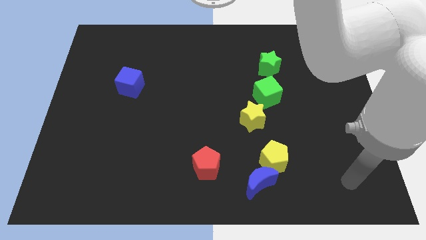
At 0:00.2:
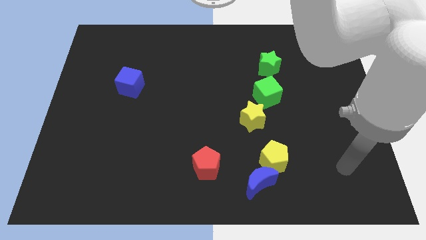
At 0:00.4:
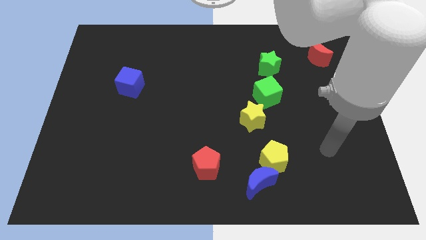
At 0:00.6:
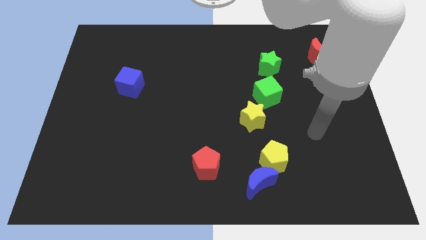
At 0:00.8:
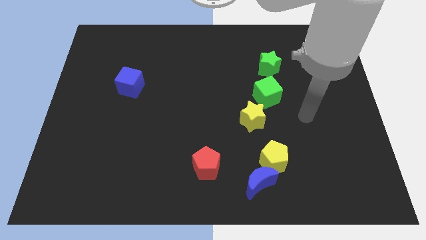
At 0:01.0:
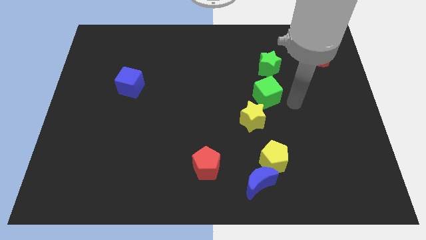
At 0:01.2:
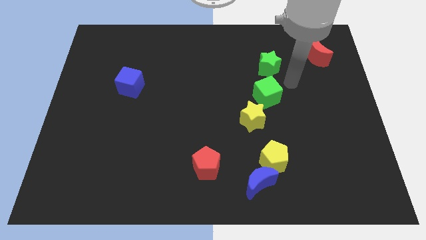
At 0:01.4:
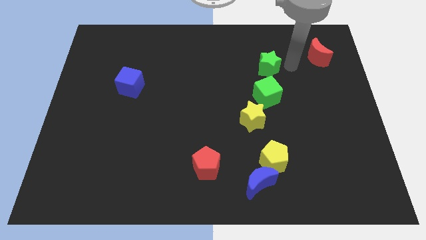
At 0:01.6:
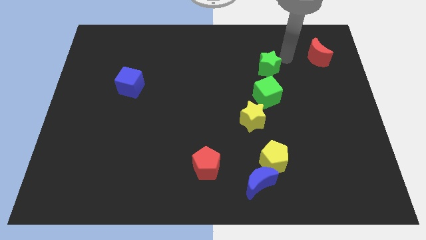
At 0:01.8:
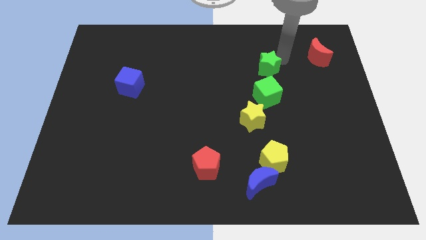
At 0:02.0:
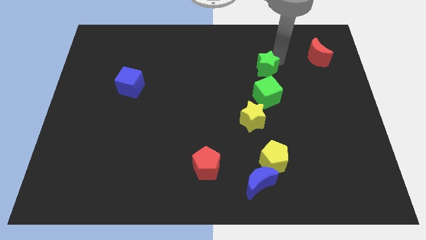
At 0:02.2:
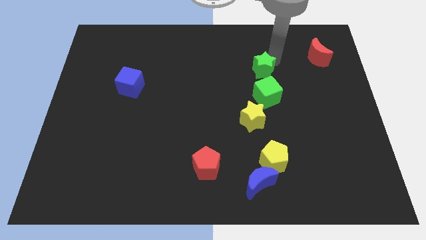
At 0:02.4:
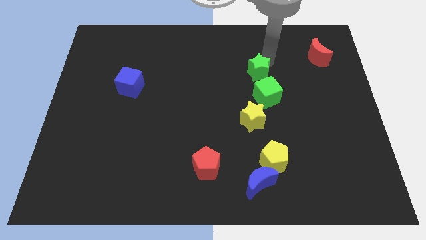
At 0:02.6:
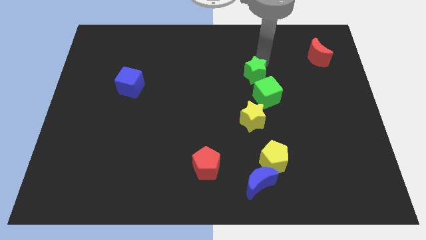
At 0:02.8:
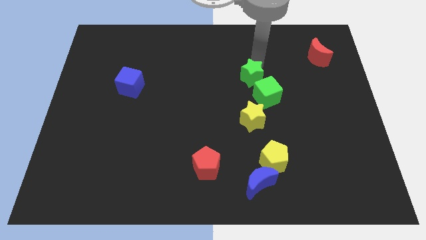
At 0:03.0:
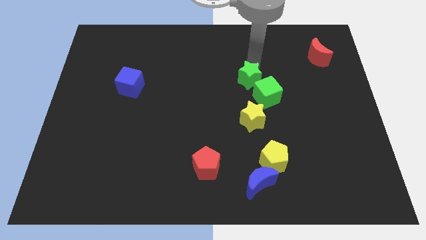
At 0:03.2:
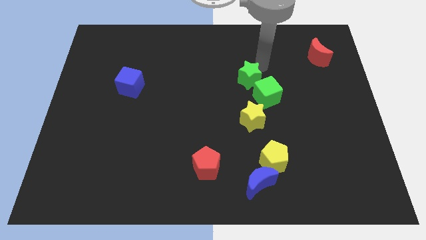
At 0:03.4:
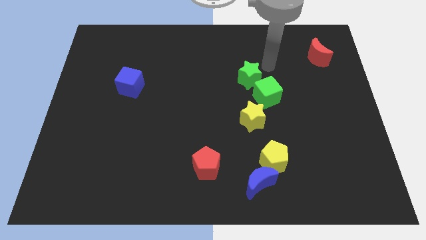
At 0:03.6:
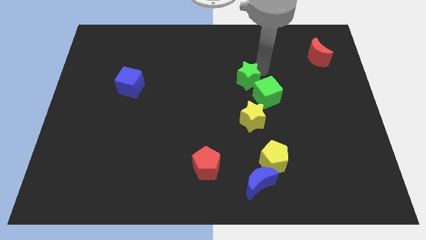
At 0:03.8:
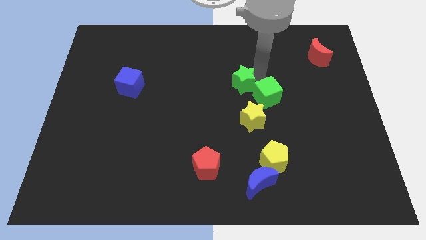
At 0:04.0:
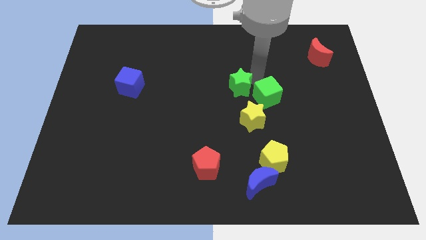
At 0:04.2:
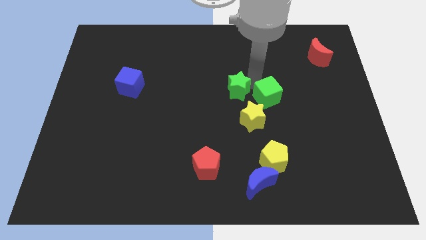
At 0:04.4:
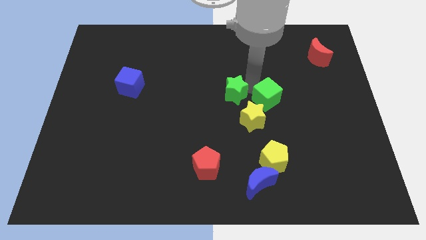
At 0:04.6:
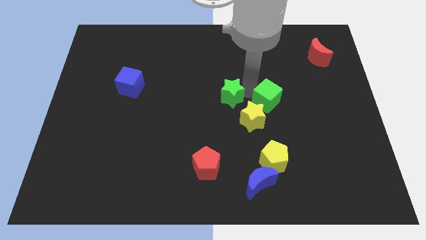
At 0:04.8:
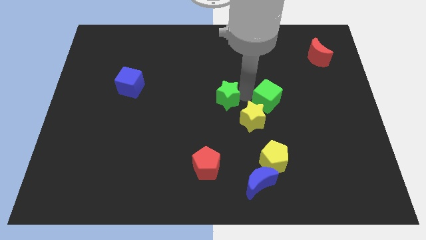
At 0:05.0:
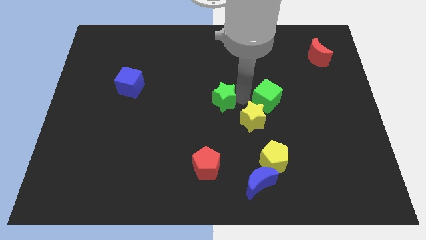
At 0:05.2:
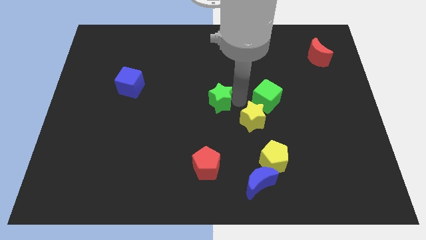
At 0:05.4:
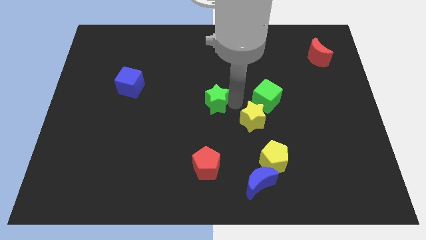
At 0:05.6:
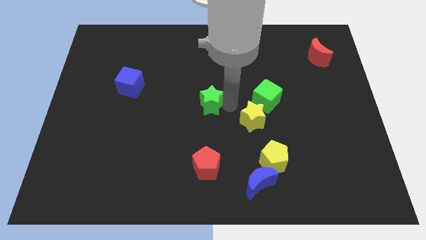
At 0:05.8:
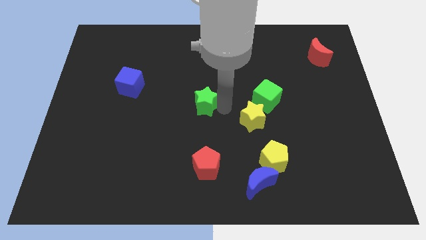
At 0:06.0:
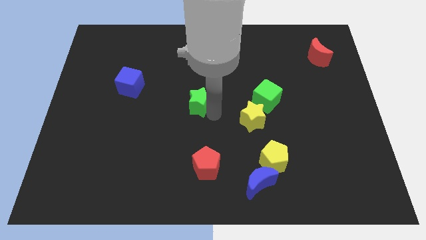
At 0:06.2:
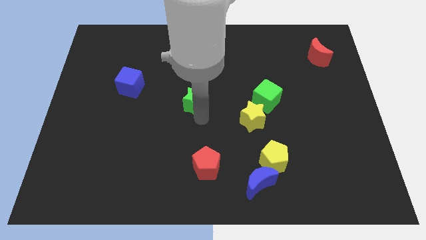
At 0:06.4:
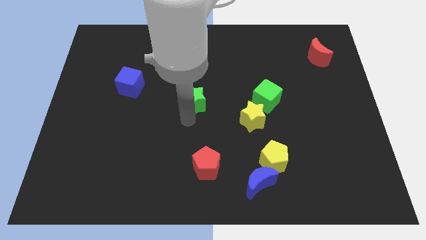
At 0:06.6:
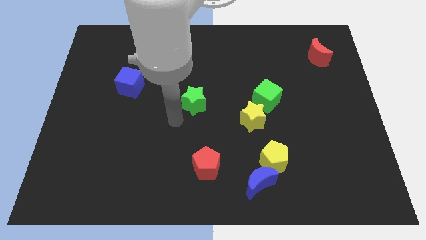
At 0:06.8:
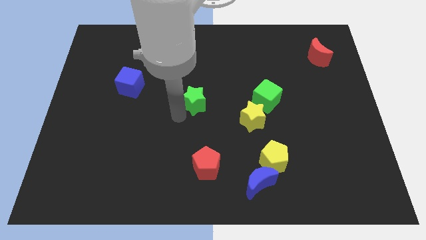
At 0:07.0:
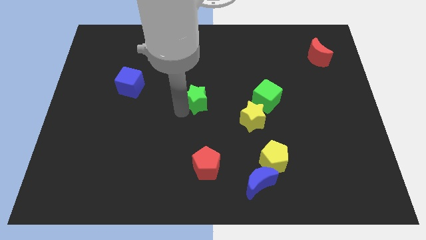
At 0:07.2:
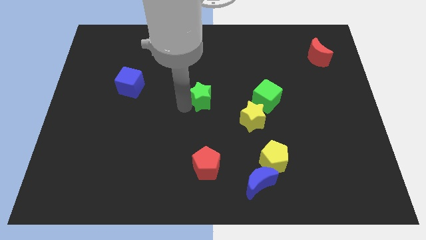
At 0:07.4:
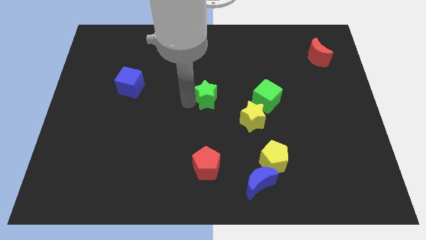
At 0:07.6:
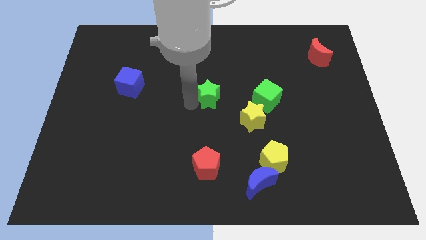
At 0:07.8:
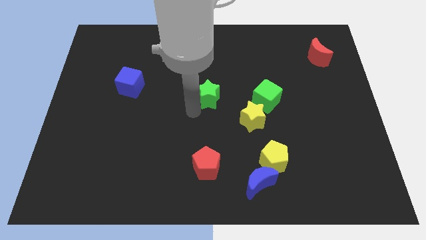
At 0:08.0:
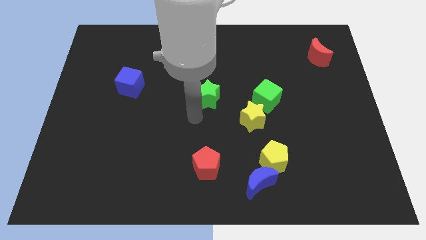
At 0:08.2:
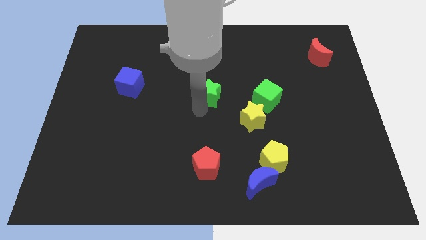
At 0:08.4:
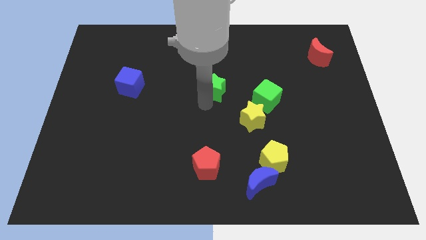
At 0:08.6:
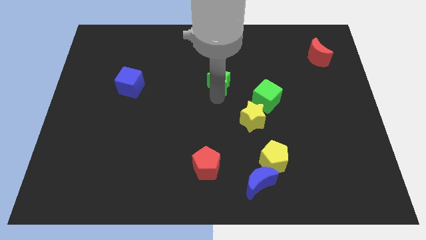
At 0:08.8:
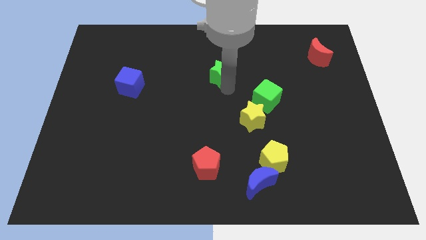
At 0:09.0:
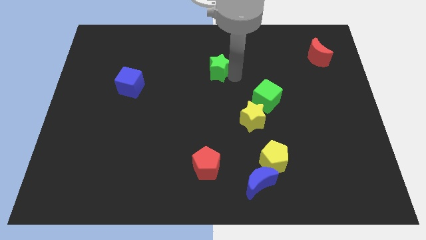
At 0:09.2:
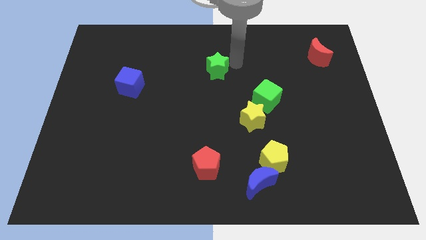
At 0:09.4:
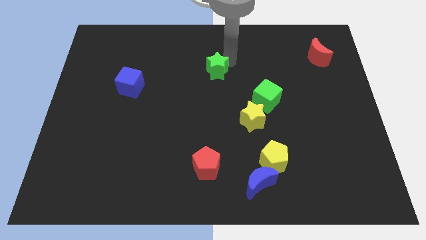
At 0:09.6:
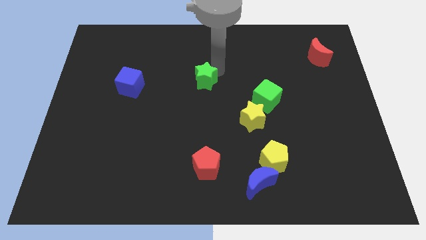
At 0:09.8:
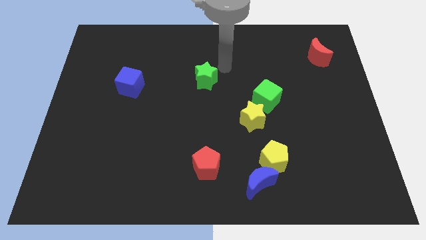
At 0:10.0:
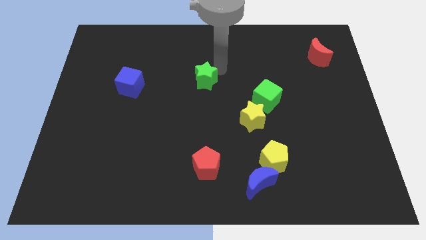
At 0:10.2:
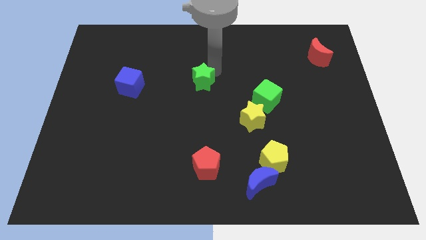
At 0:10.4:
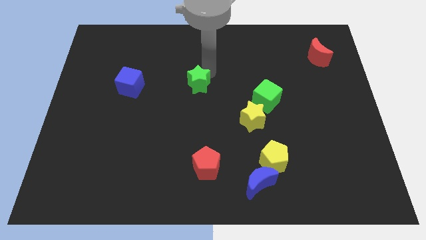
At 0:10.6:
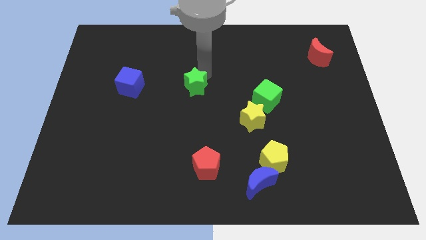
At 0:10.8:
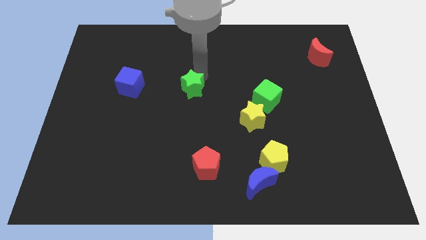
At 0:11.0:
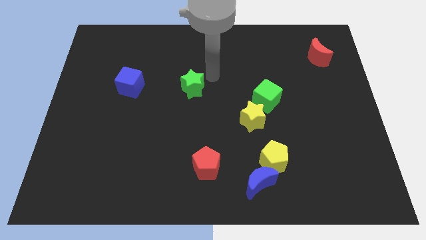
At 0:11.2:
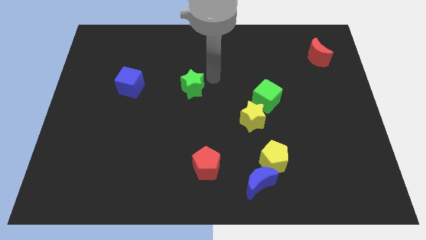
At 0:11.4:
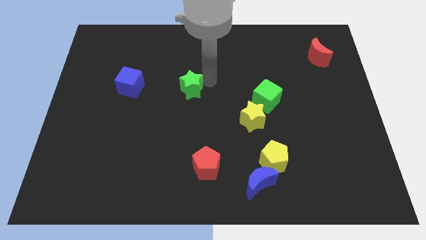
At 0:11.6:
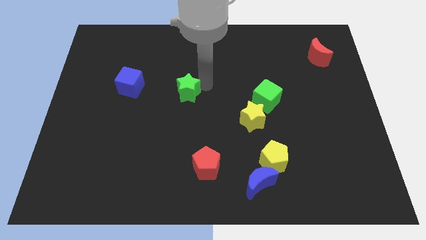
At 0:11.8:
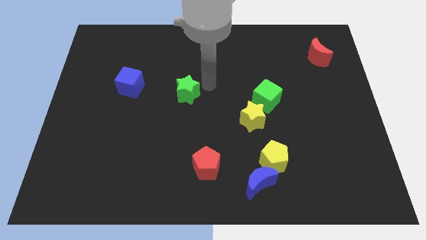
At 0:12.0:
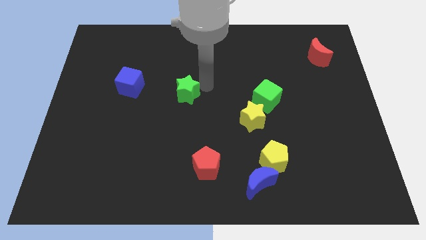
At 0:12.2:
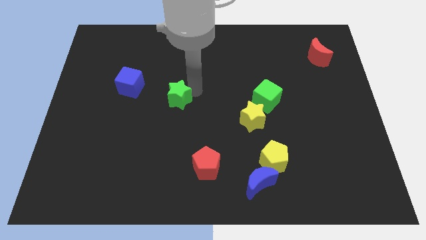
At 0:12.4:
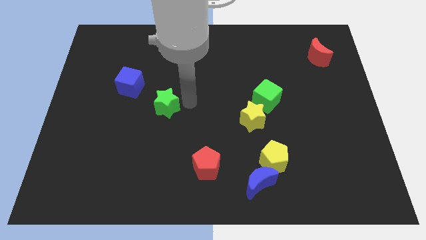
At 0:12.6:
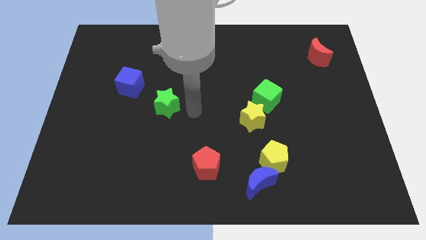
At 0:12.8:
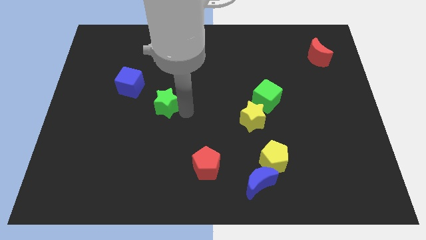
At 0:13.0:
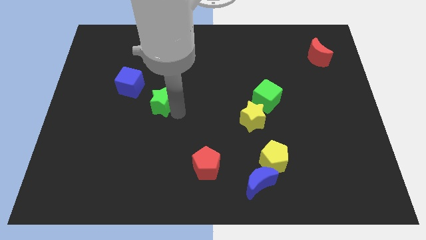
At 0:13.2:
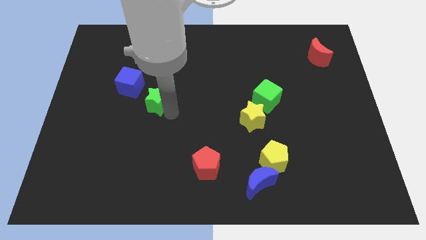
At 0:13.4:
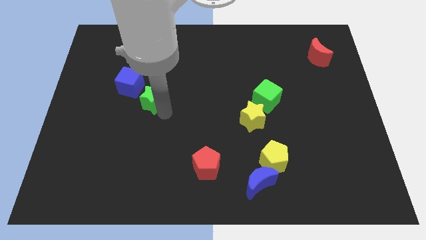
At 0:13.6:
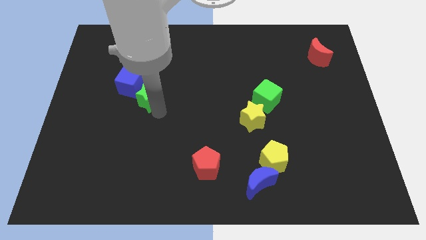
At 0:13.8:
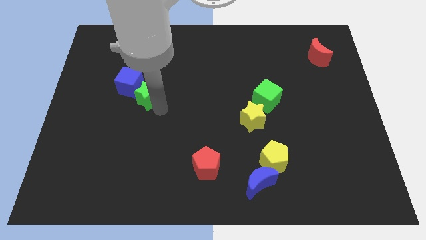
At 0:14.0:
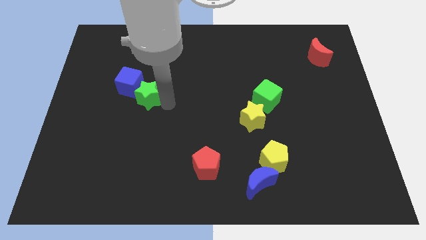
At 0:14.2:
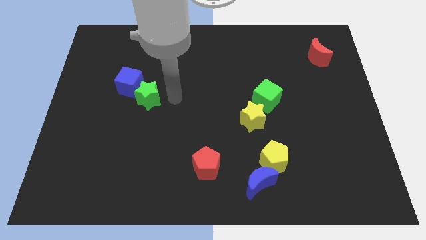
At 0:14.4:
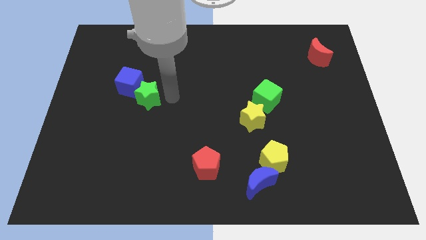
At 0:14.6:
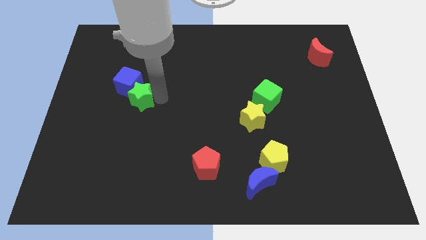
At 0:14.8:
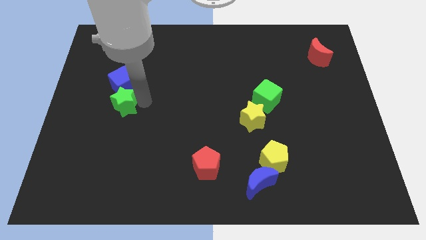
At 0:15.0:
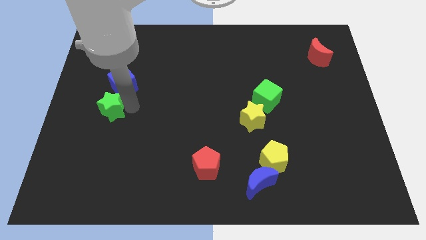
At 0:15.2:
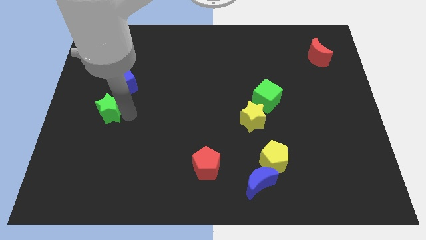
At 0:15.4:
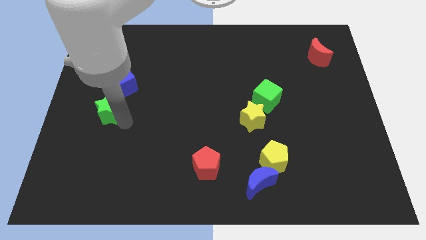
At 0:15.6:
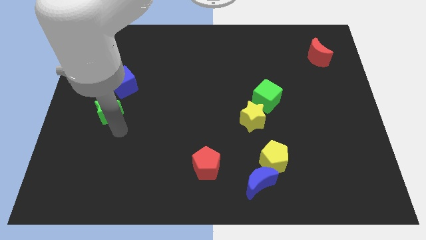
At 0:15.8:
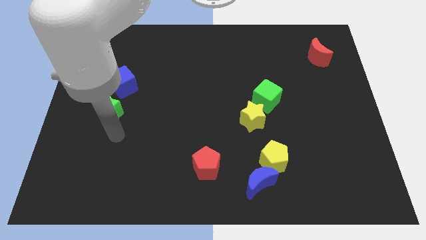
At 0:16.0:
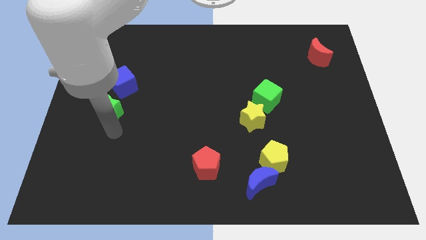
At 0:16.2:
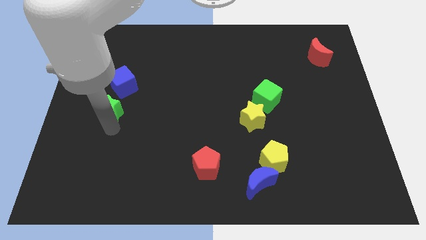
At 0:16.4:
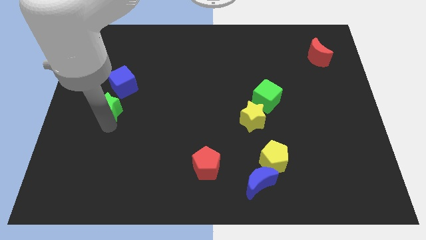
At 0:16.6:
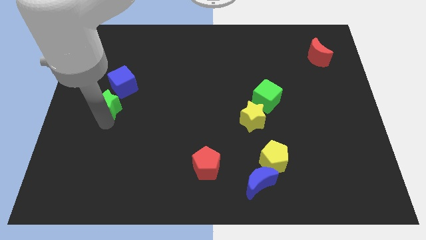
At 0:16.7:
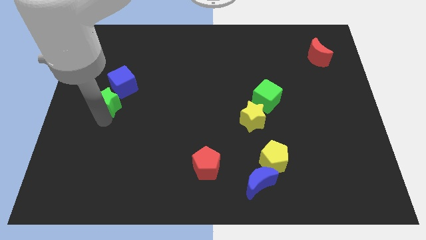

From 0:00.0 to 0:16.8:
move the green star to the center left
